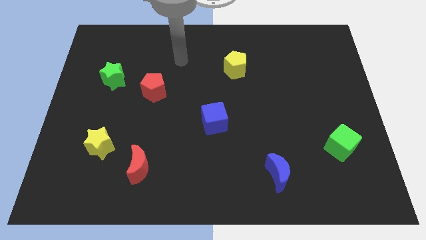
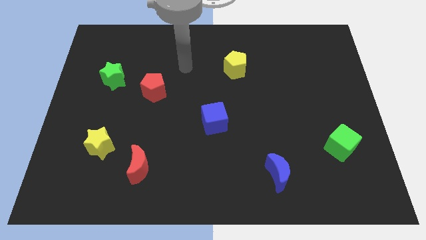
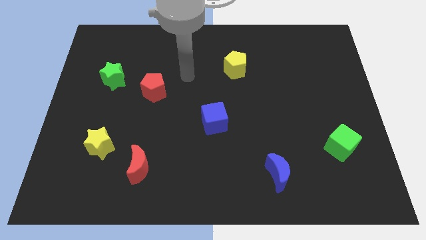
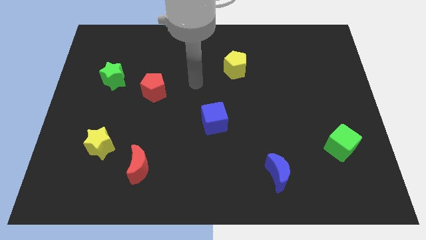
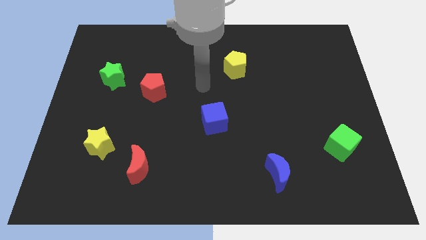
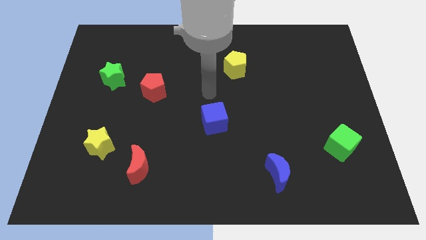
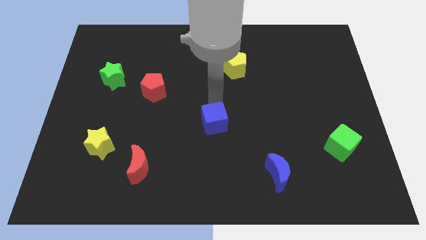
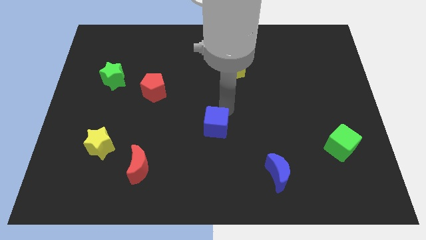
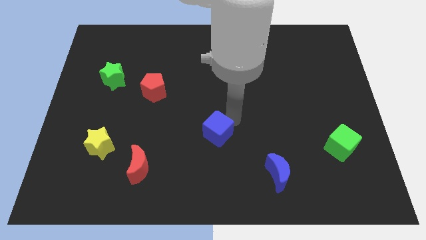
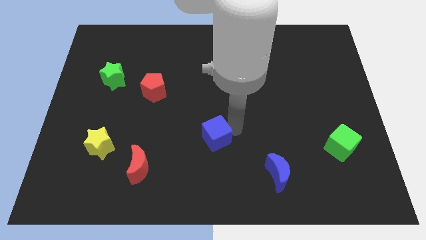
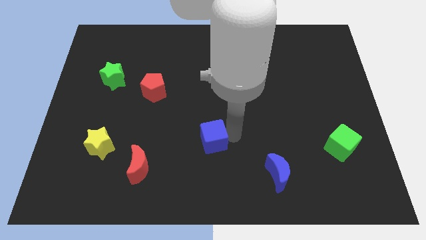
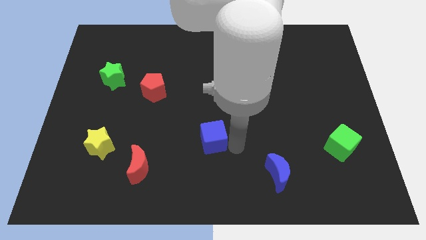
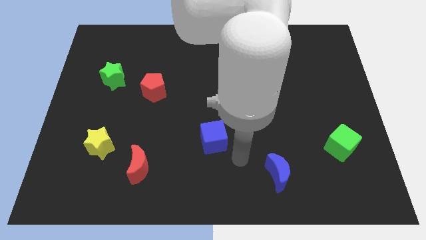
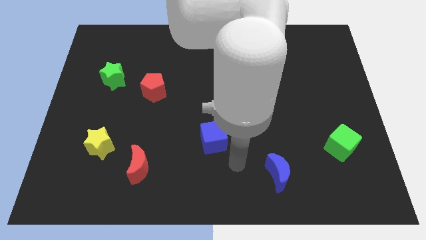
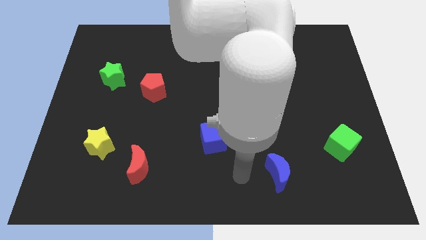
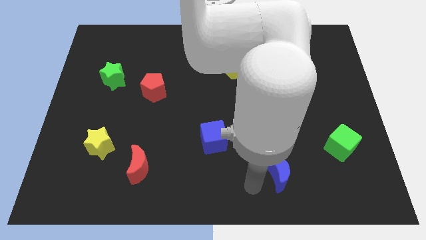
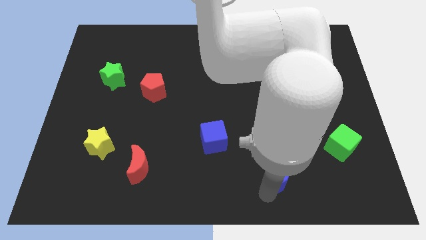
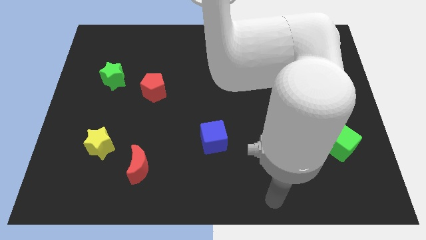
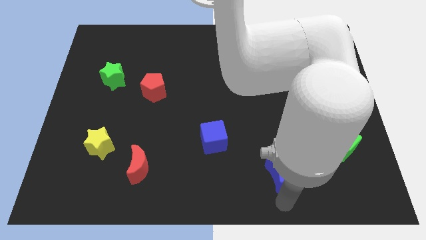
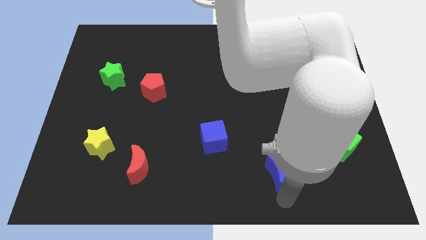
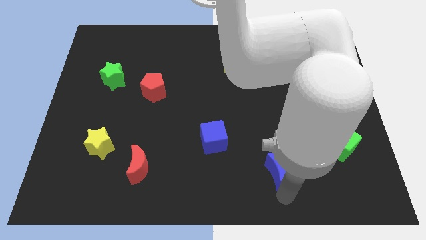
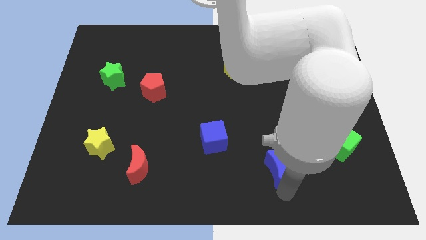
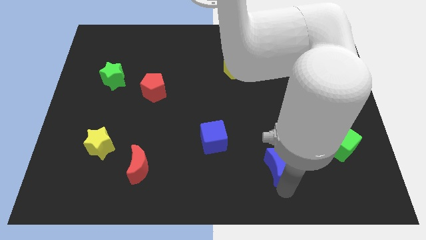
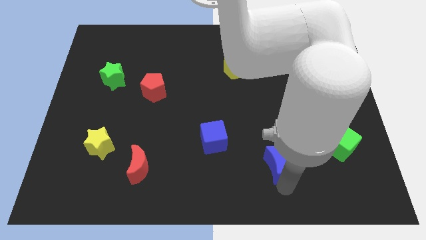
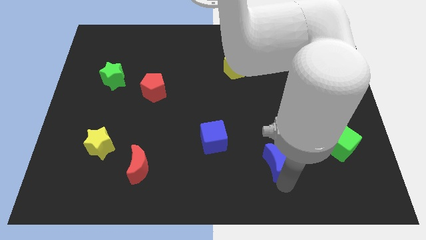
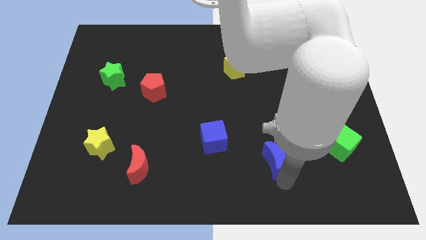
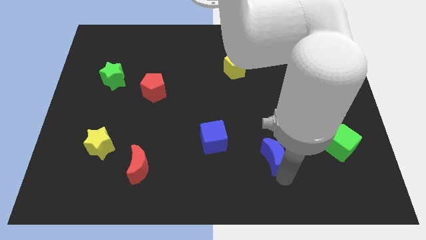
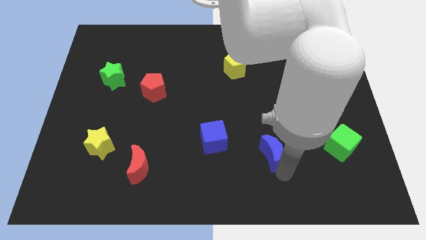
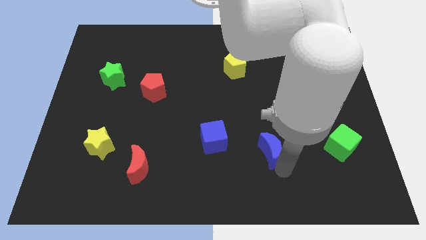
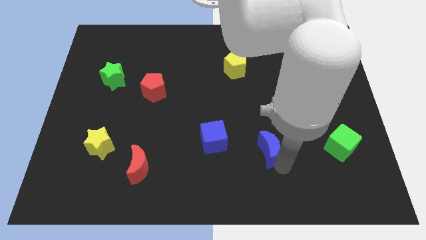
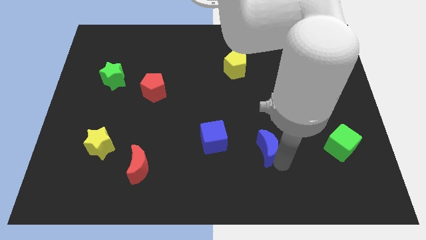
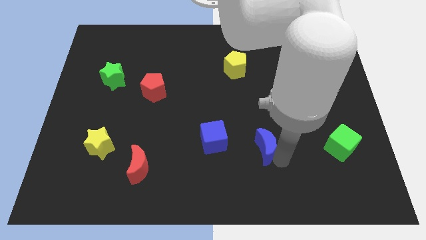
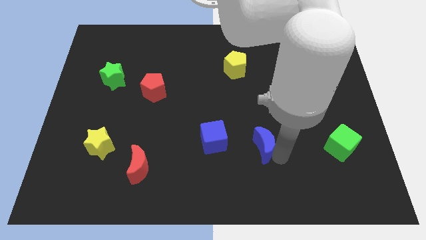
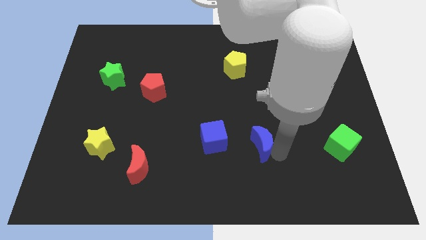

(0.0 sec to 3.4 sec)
slightly push the blue moon up

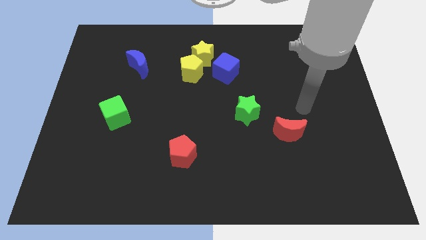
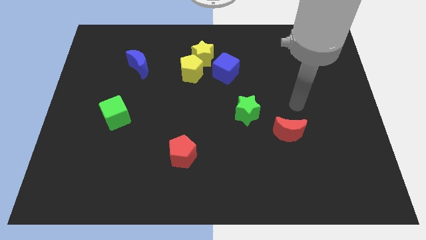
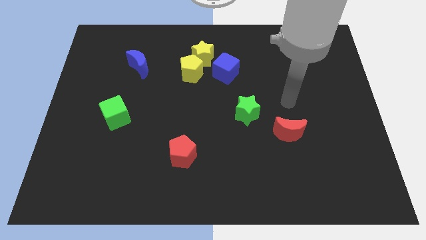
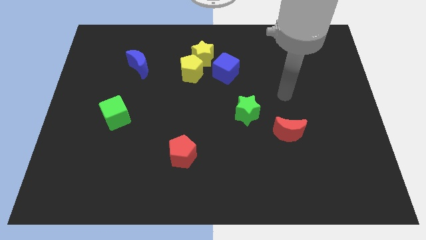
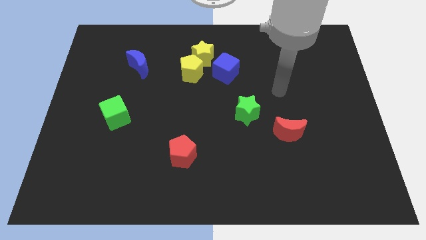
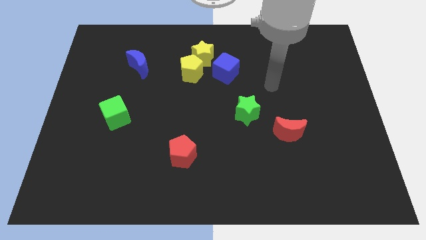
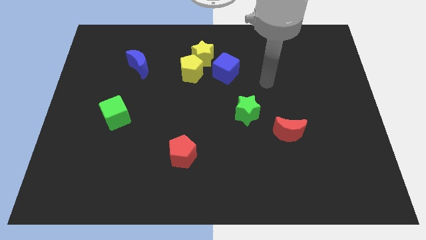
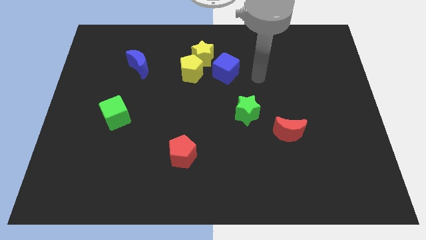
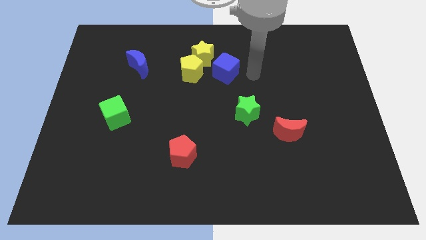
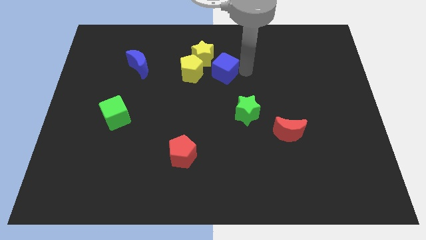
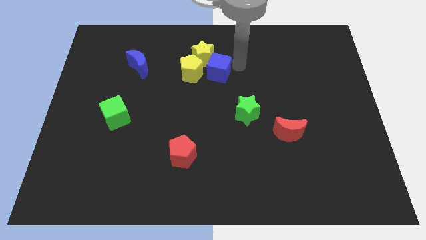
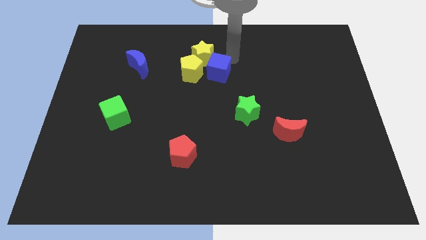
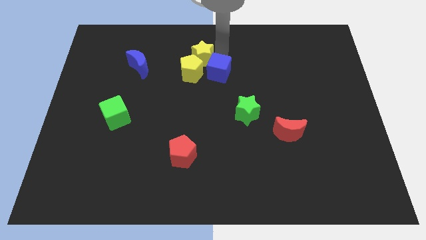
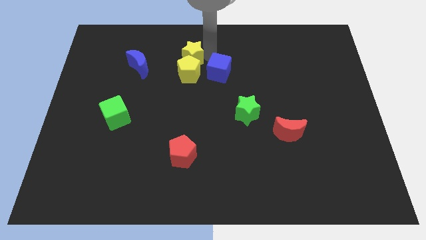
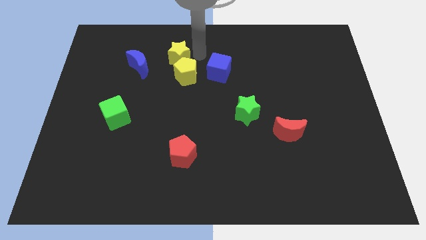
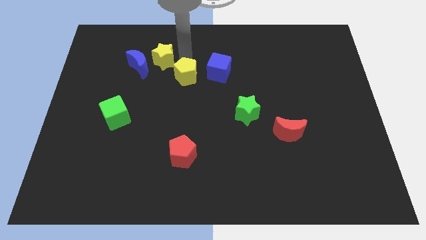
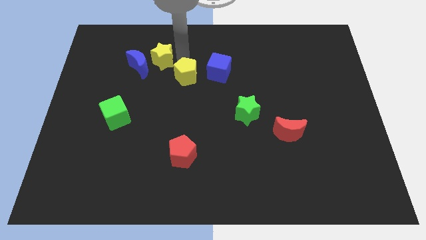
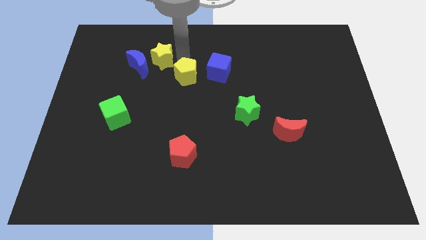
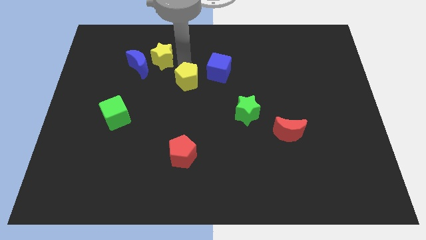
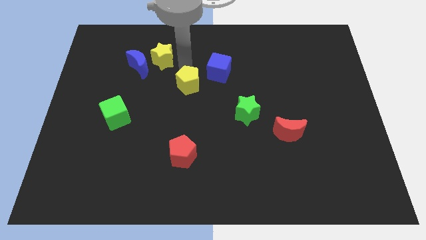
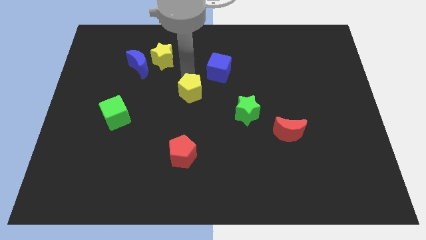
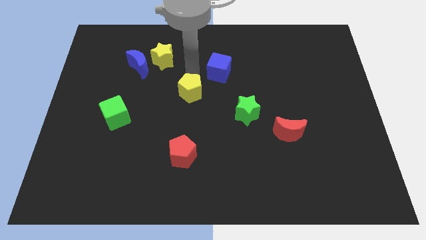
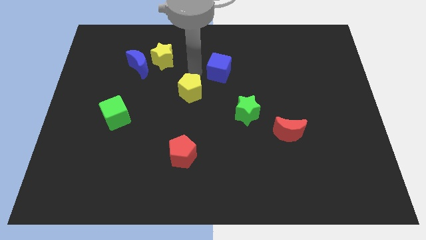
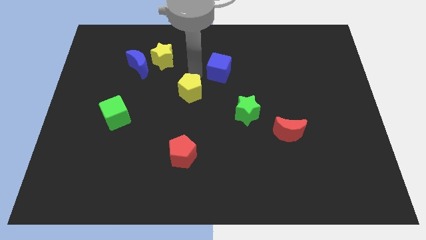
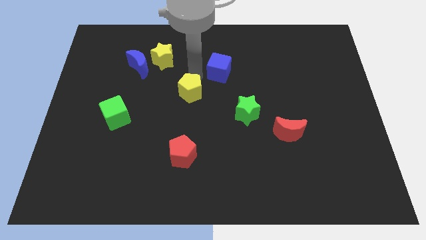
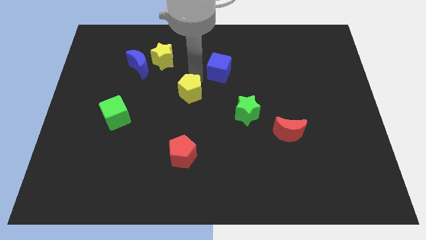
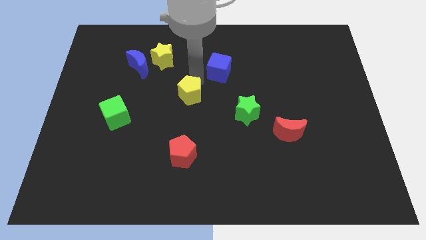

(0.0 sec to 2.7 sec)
push the yellow pentagon a little downwards

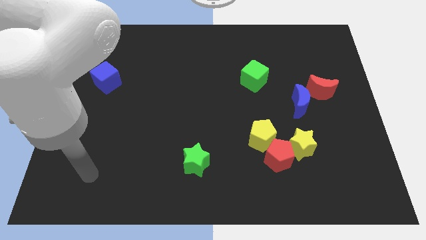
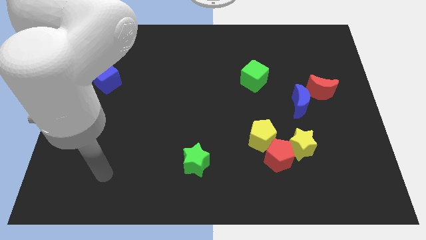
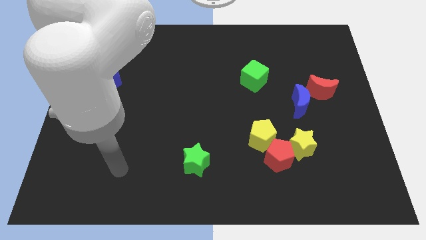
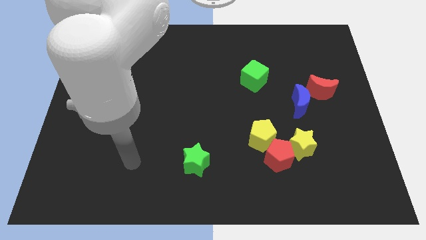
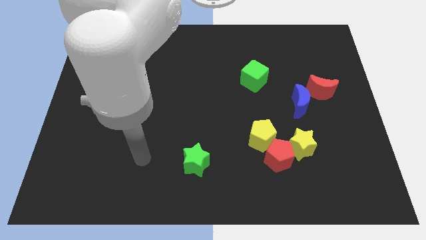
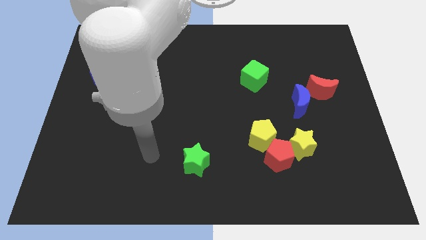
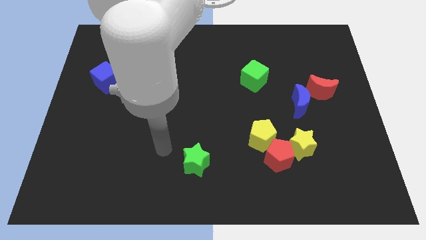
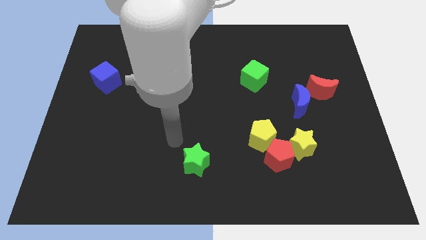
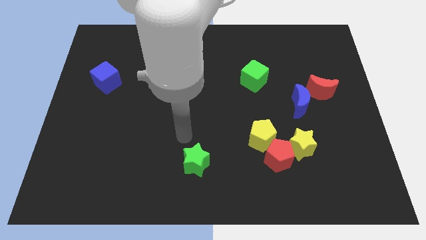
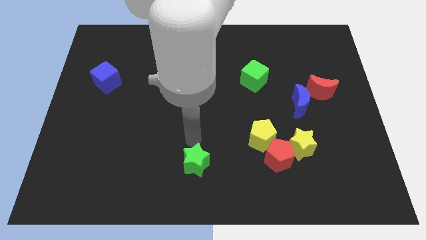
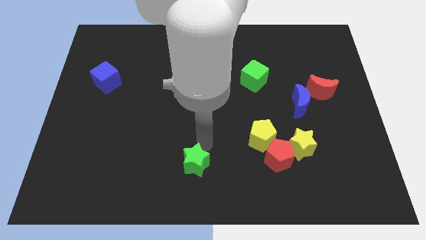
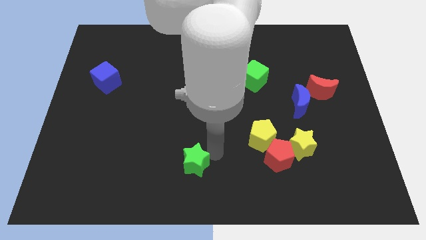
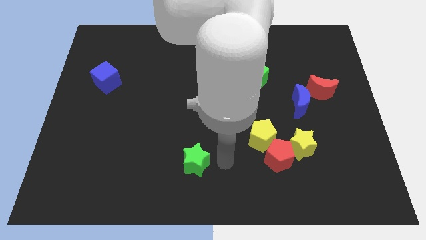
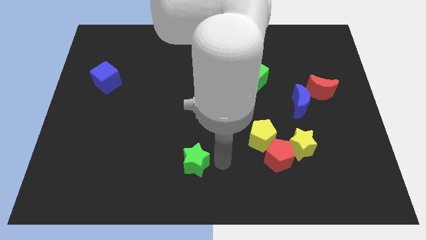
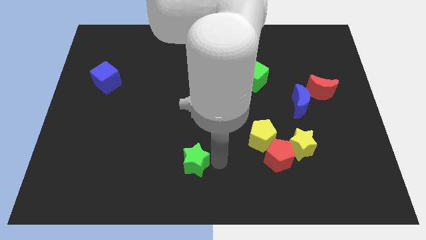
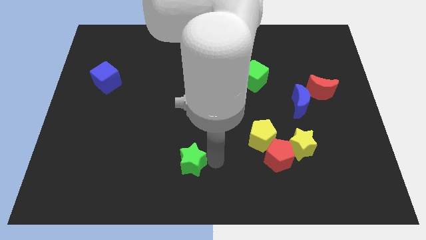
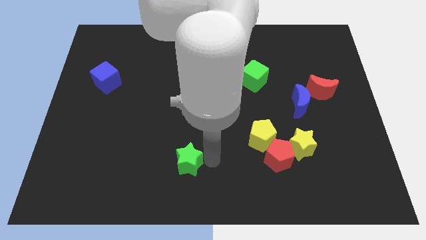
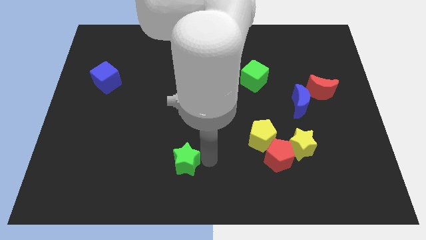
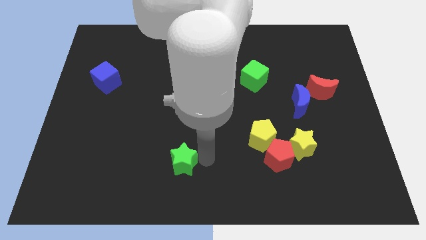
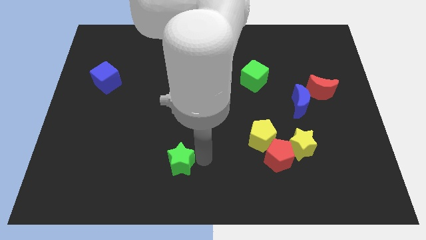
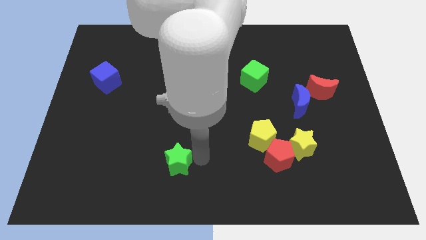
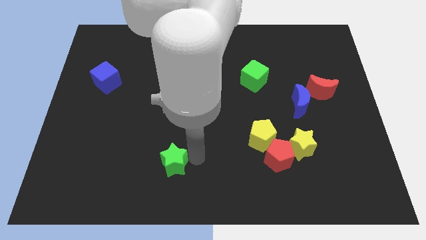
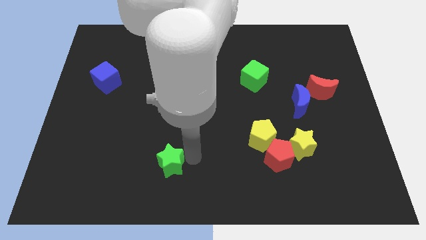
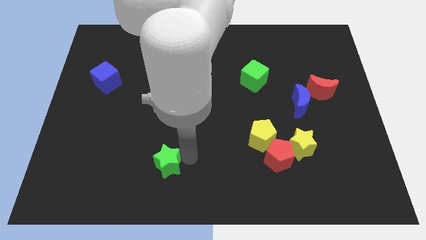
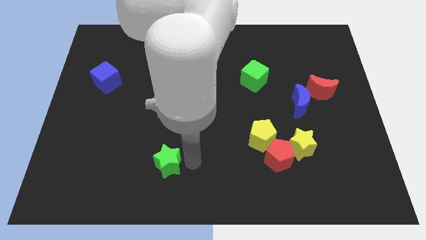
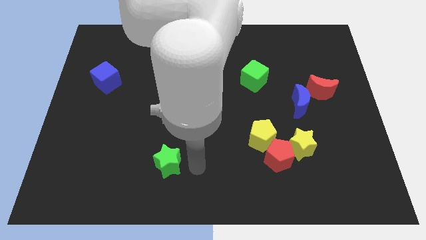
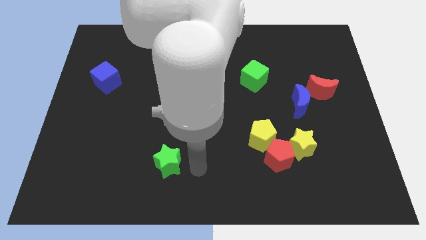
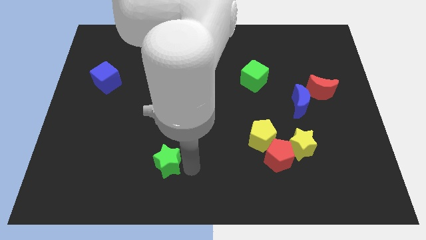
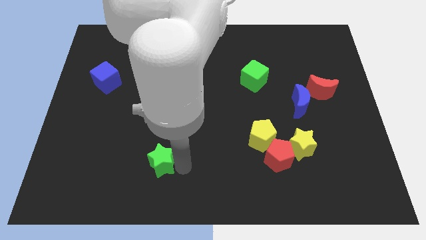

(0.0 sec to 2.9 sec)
move the green star left a little
